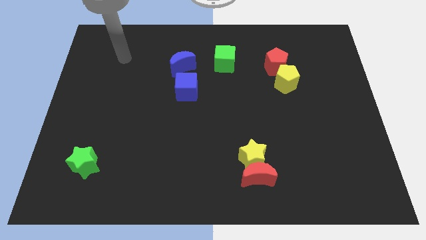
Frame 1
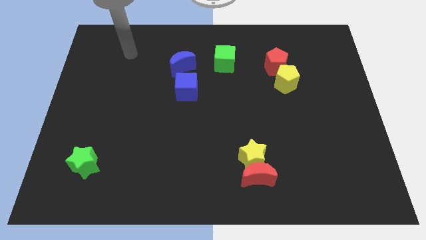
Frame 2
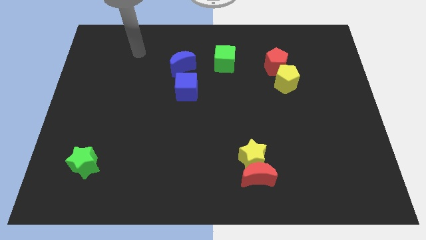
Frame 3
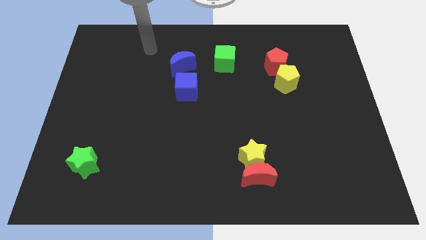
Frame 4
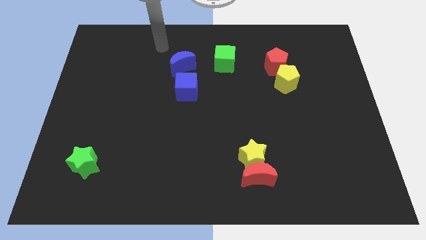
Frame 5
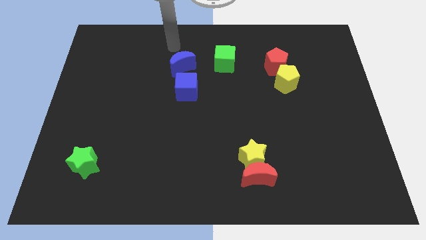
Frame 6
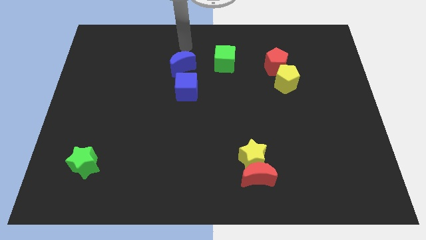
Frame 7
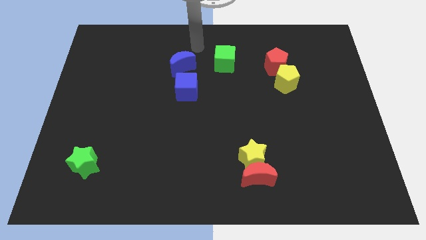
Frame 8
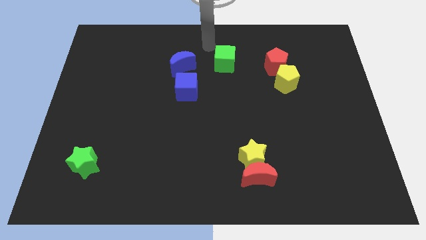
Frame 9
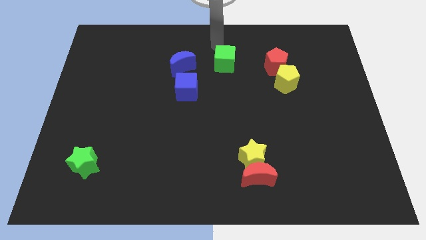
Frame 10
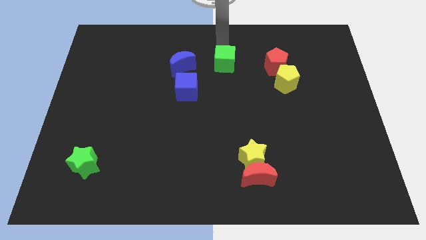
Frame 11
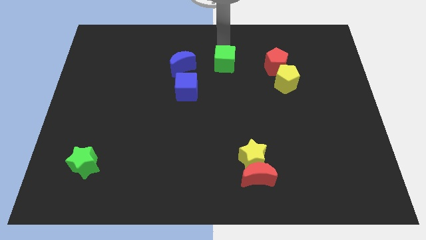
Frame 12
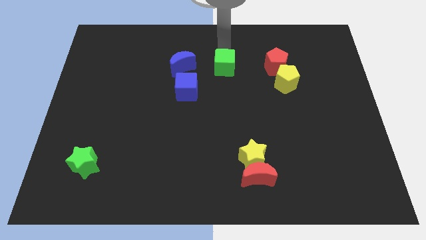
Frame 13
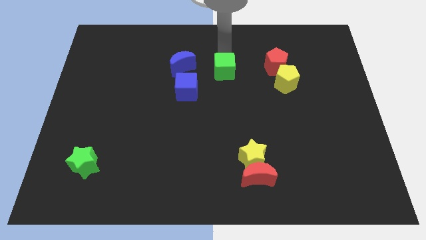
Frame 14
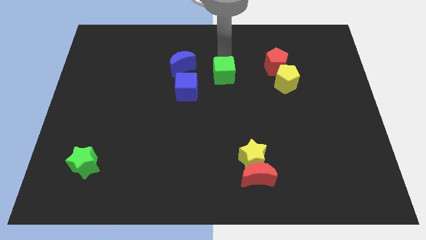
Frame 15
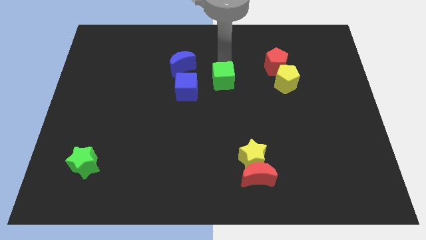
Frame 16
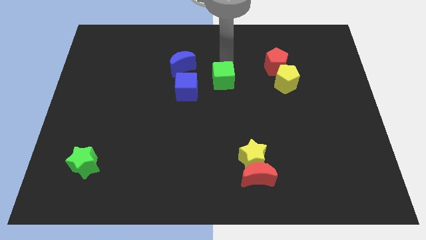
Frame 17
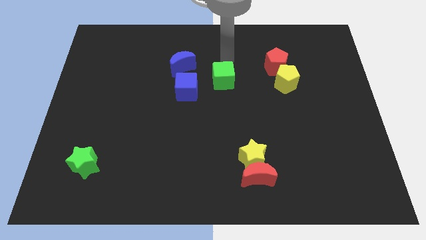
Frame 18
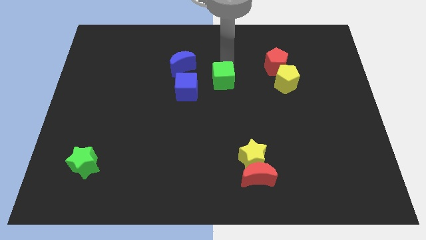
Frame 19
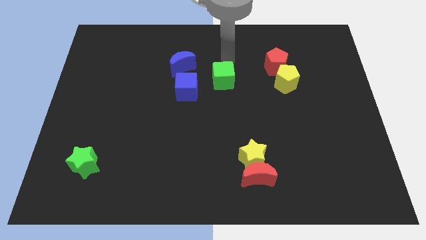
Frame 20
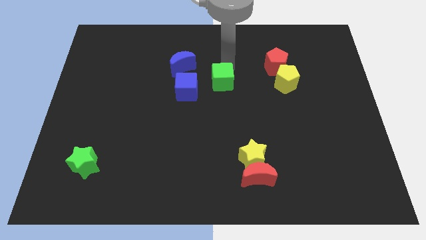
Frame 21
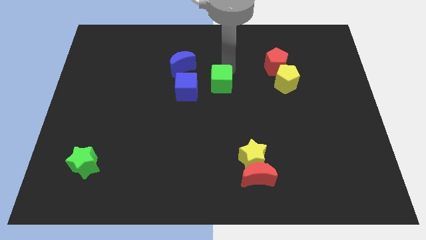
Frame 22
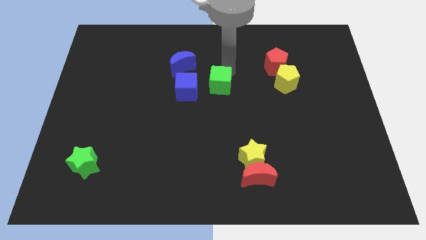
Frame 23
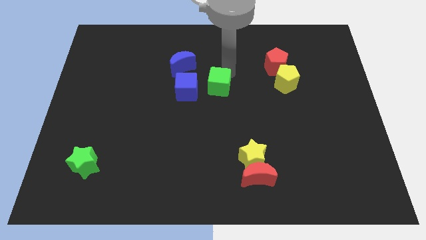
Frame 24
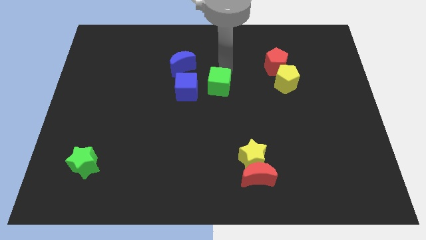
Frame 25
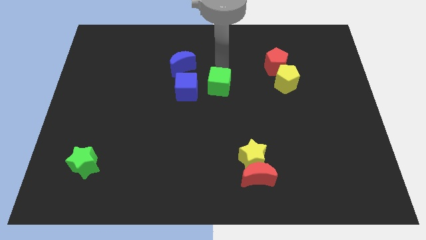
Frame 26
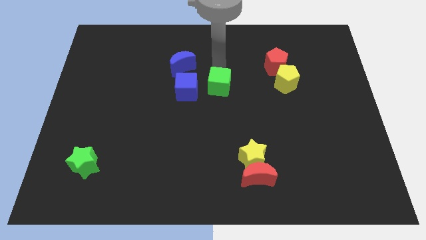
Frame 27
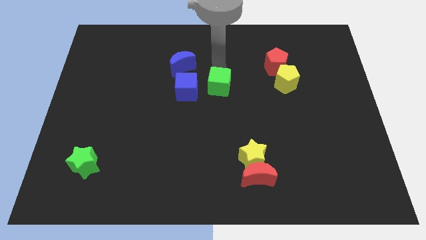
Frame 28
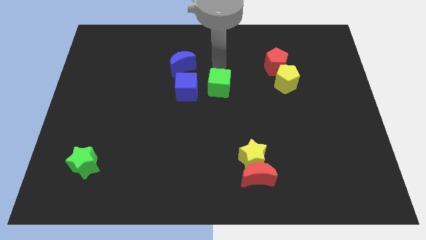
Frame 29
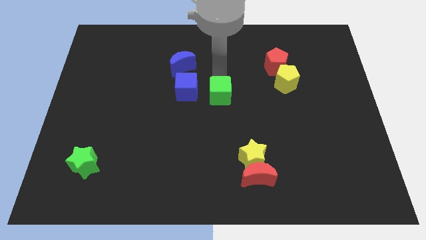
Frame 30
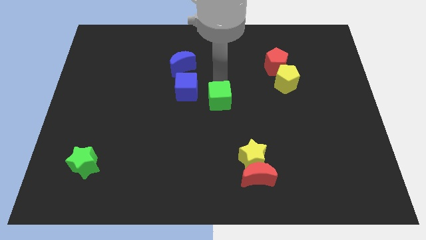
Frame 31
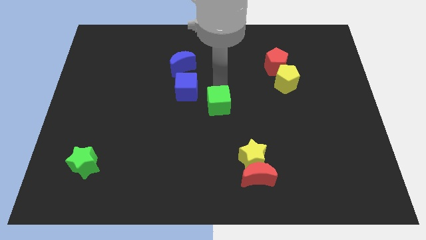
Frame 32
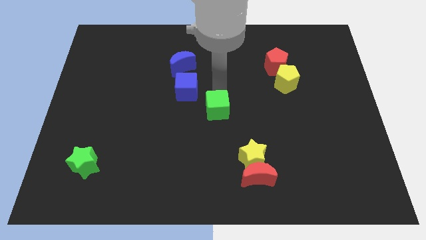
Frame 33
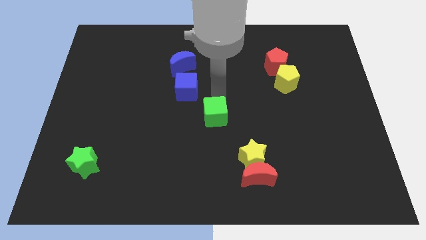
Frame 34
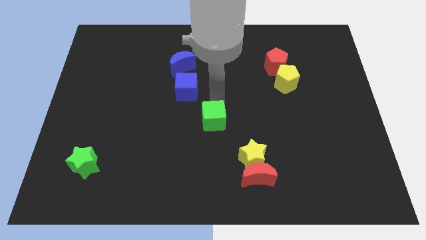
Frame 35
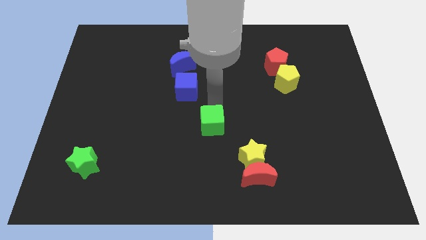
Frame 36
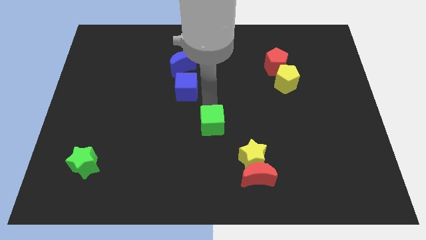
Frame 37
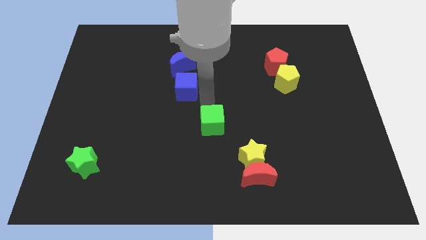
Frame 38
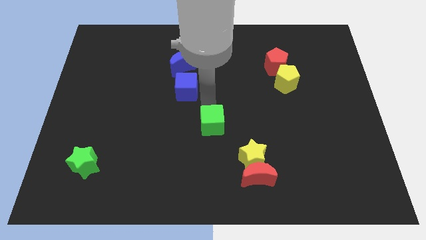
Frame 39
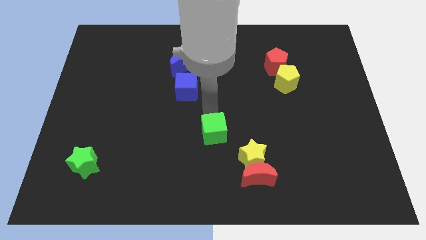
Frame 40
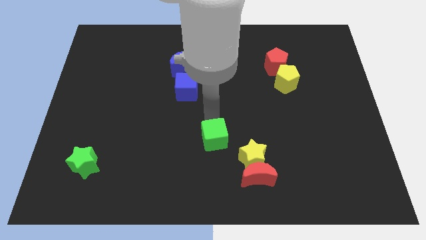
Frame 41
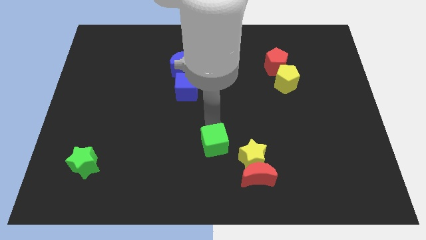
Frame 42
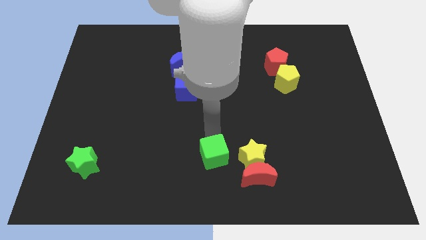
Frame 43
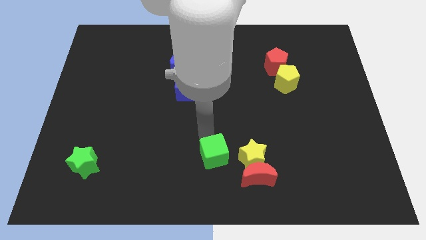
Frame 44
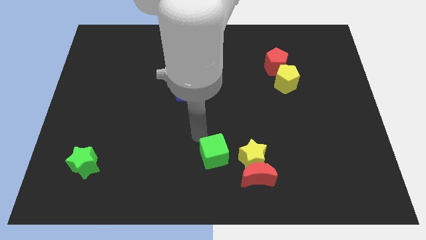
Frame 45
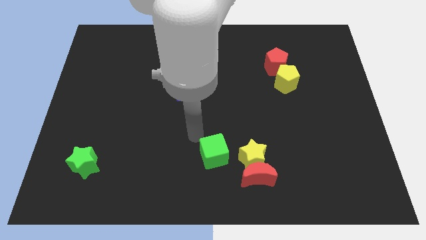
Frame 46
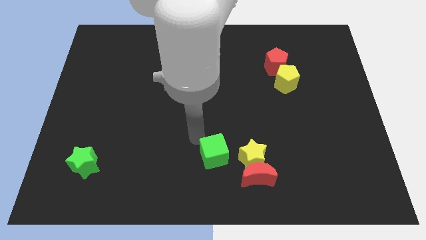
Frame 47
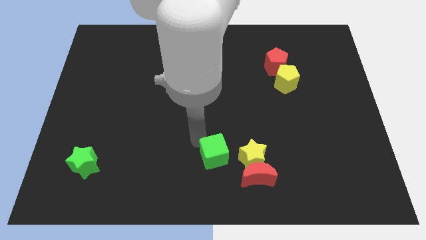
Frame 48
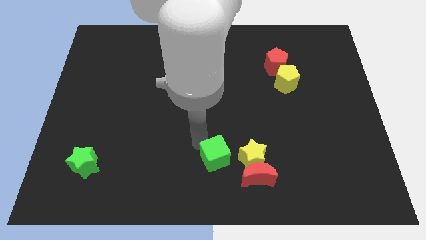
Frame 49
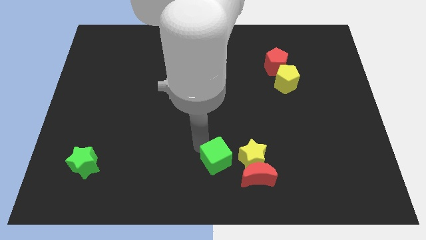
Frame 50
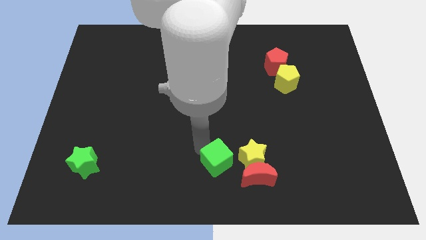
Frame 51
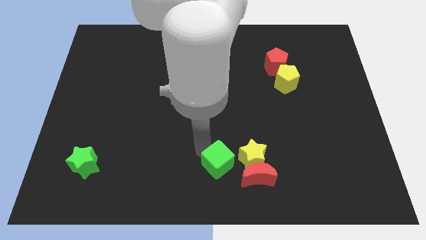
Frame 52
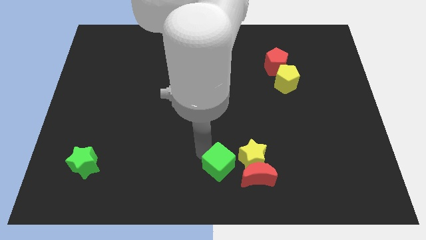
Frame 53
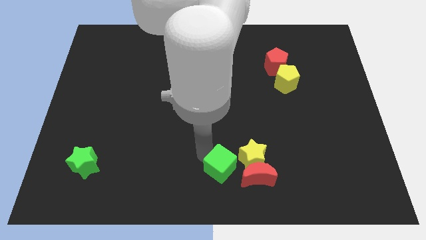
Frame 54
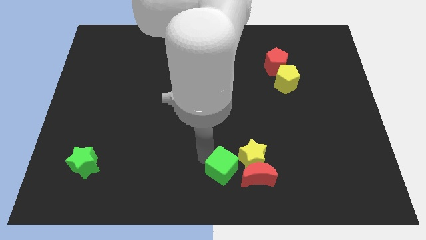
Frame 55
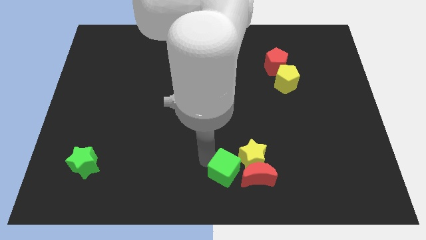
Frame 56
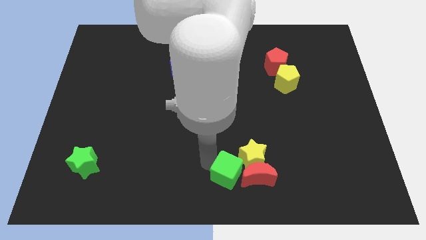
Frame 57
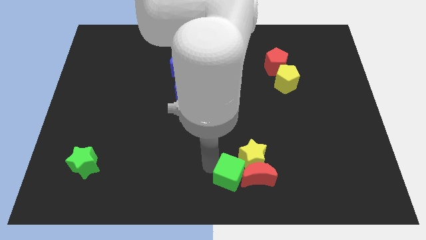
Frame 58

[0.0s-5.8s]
put the green cube next to the red moon
